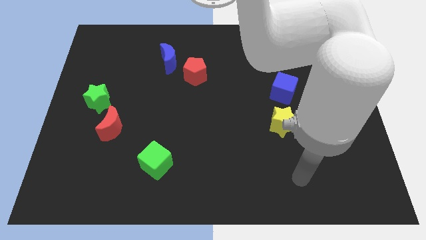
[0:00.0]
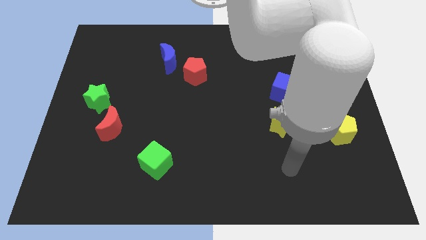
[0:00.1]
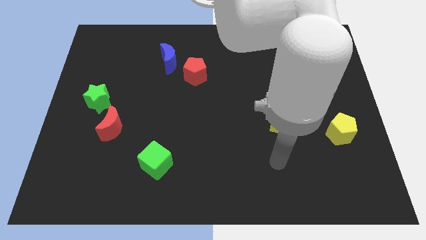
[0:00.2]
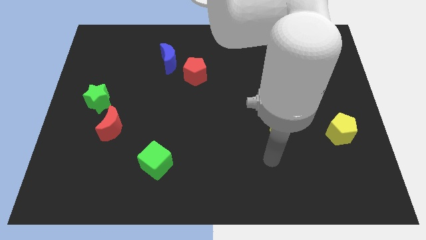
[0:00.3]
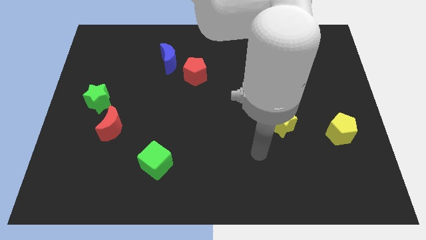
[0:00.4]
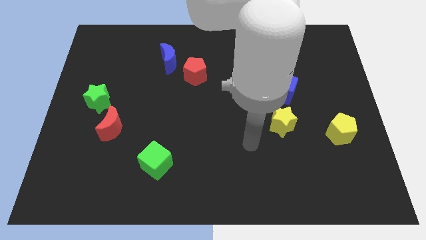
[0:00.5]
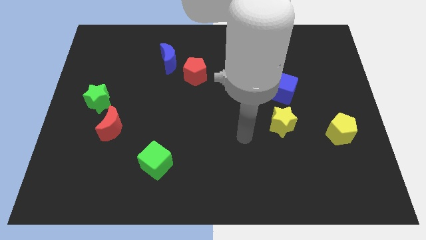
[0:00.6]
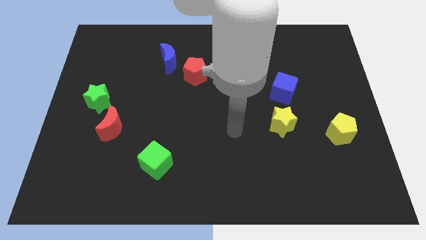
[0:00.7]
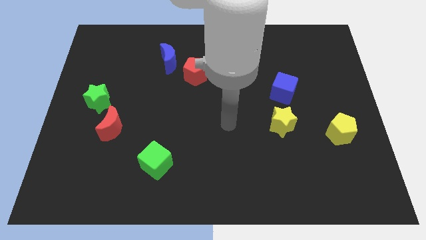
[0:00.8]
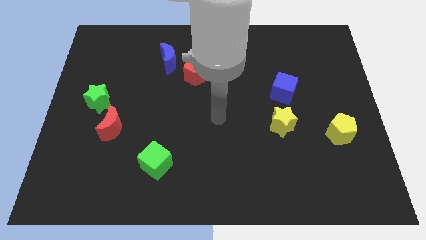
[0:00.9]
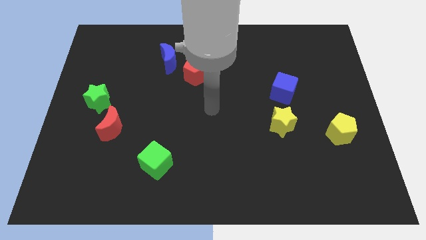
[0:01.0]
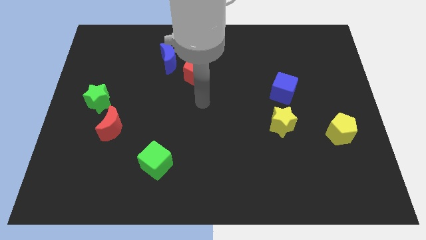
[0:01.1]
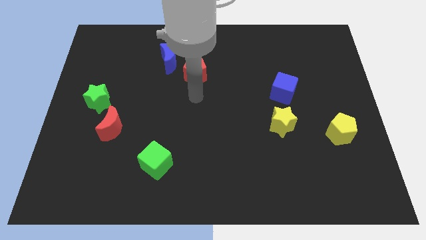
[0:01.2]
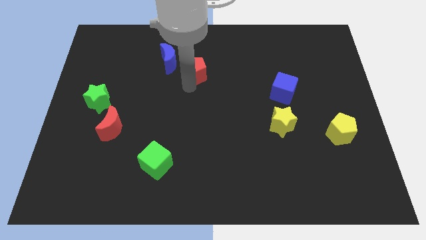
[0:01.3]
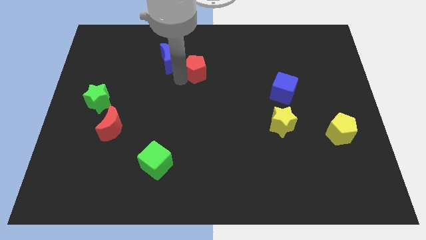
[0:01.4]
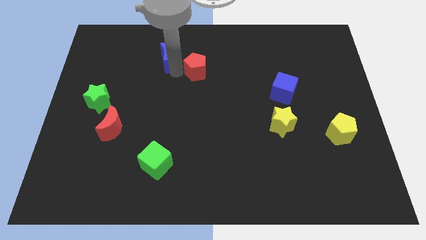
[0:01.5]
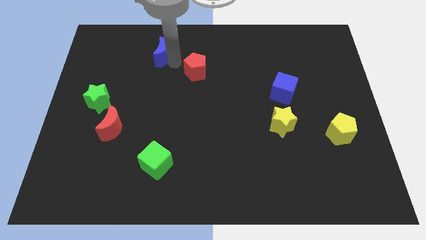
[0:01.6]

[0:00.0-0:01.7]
pull the red pentagon apart from the blue moon

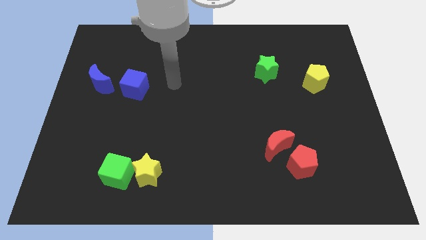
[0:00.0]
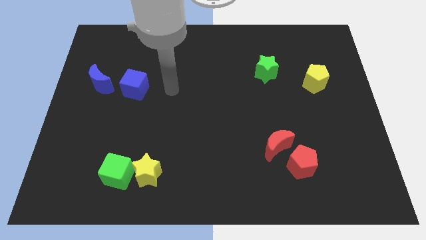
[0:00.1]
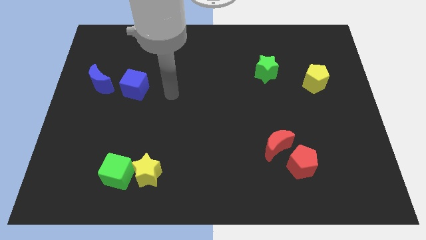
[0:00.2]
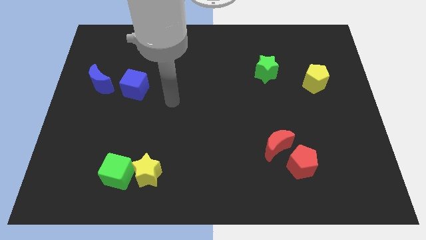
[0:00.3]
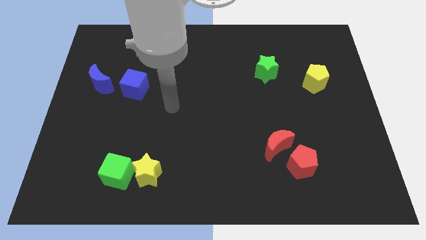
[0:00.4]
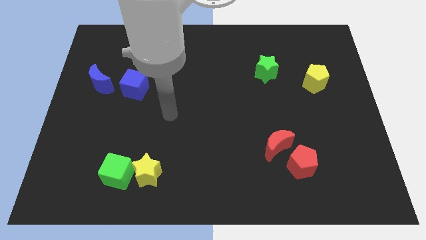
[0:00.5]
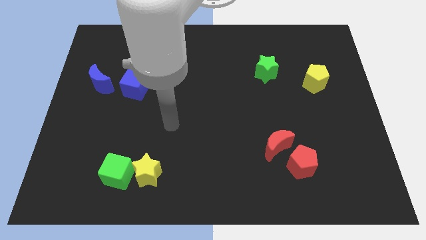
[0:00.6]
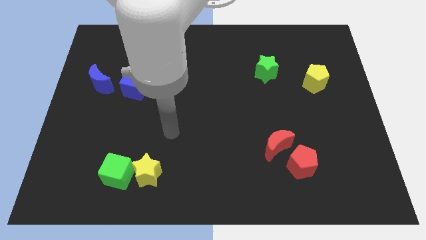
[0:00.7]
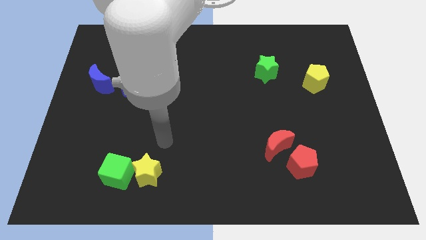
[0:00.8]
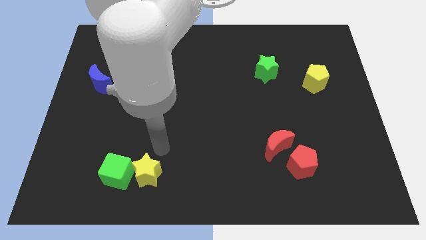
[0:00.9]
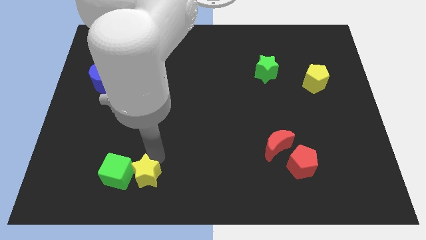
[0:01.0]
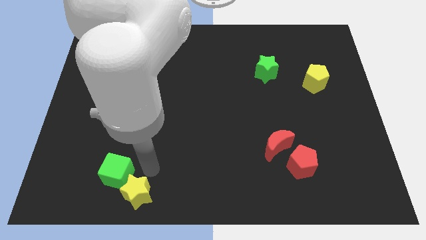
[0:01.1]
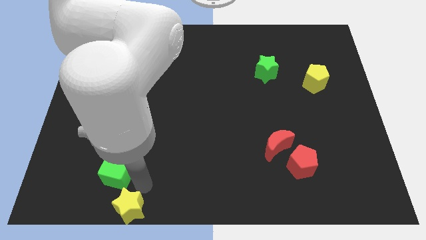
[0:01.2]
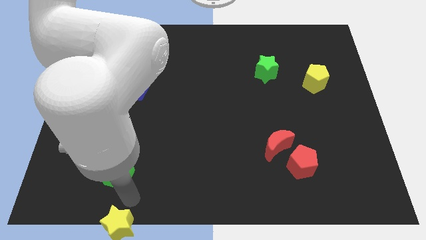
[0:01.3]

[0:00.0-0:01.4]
separate the green cube from the yellow star

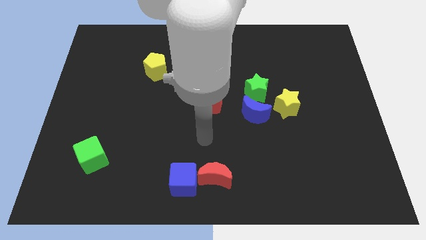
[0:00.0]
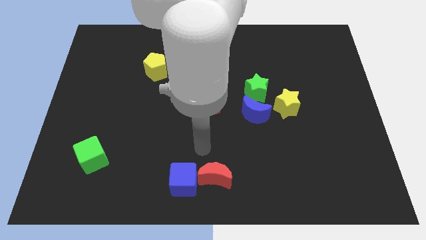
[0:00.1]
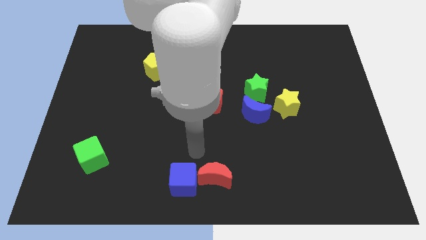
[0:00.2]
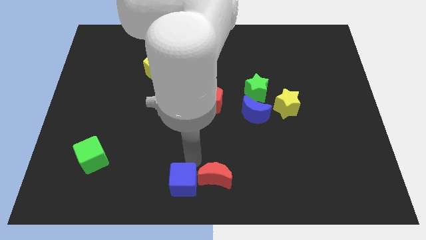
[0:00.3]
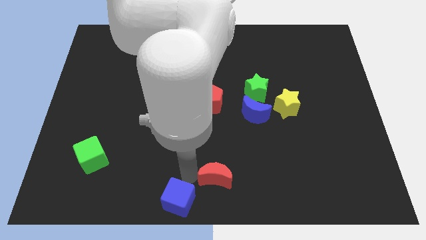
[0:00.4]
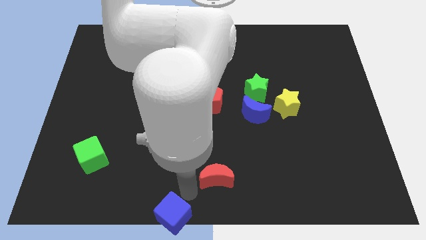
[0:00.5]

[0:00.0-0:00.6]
move the red moon away from the blue cube

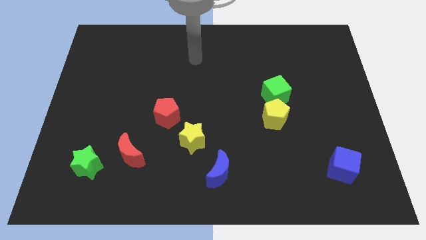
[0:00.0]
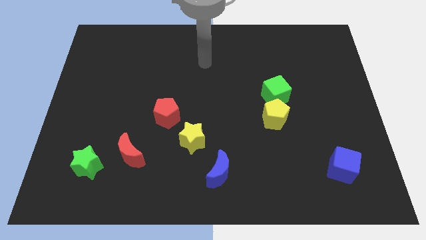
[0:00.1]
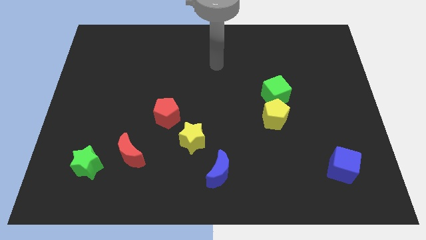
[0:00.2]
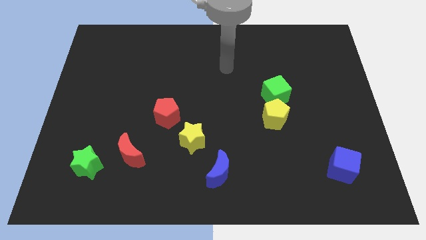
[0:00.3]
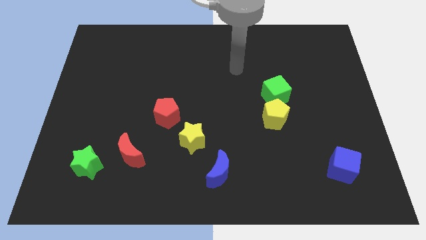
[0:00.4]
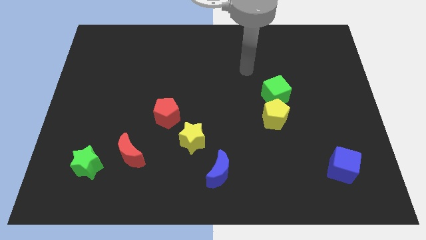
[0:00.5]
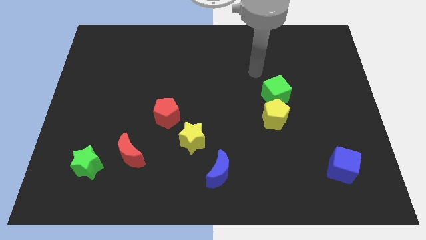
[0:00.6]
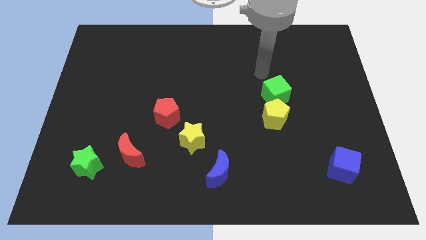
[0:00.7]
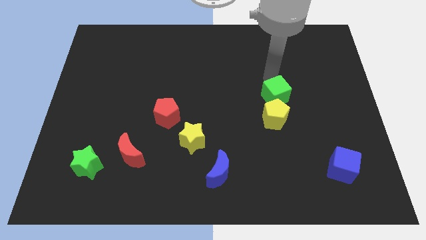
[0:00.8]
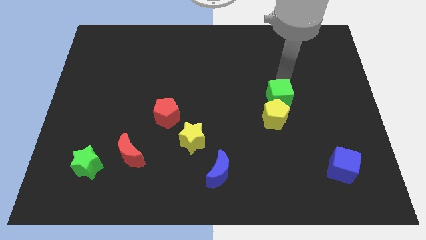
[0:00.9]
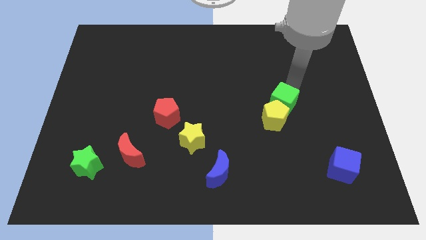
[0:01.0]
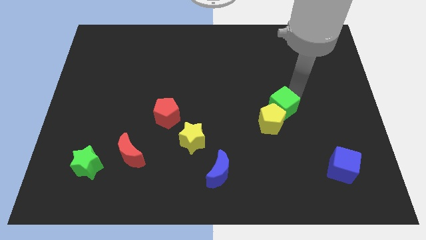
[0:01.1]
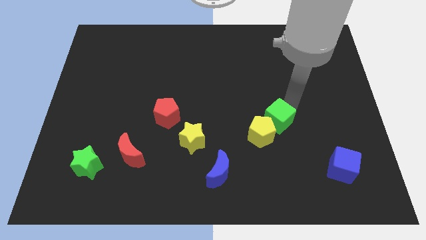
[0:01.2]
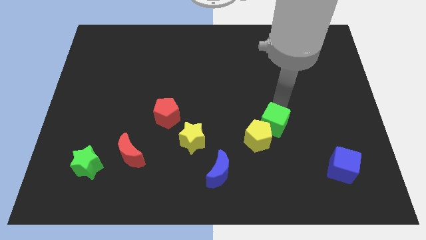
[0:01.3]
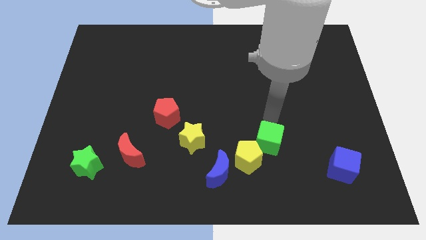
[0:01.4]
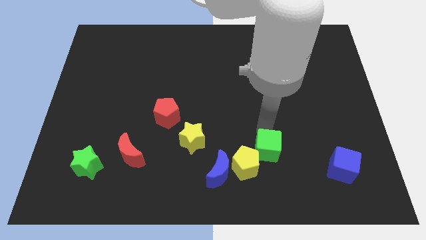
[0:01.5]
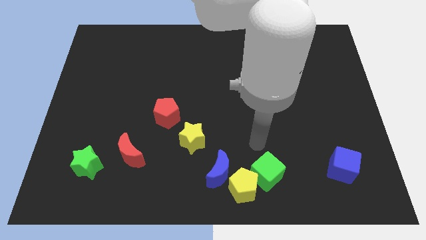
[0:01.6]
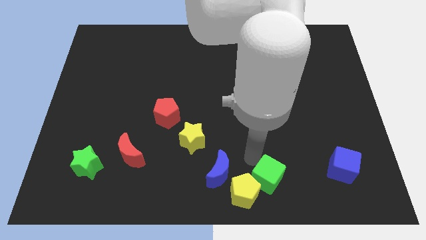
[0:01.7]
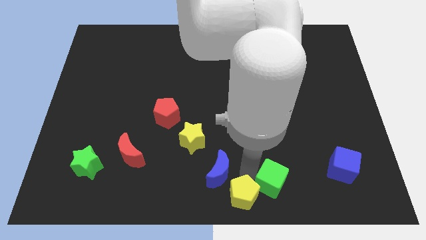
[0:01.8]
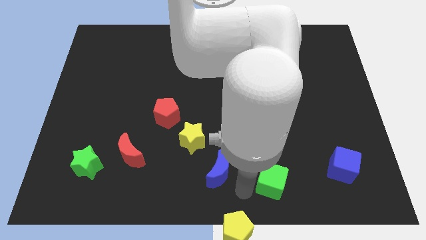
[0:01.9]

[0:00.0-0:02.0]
move the green cube away from the yellow pentagon

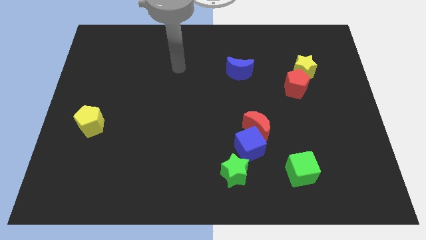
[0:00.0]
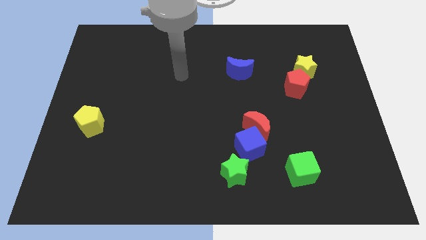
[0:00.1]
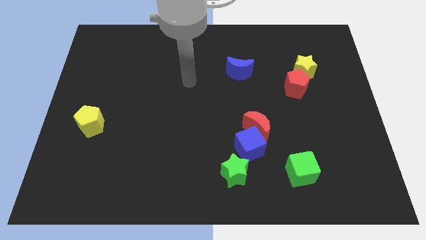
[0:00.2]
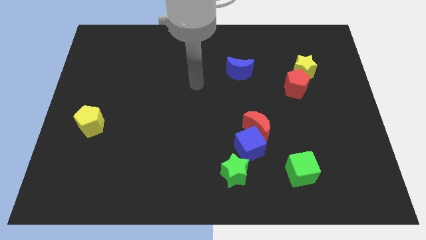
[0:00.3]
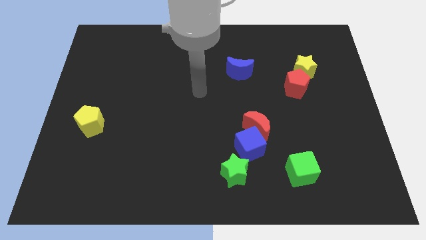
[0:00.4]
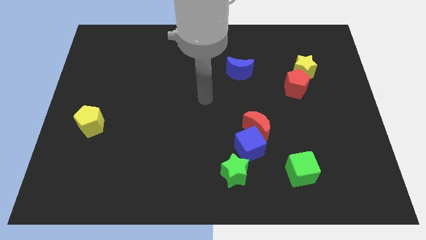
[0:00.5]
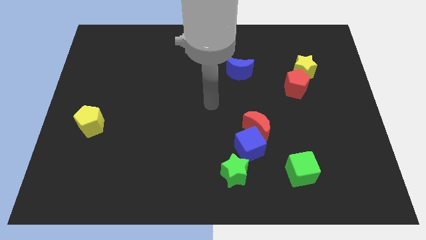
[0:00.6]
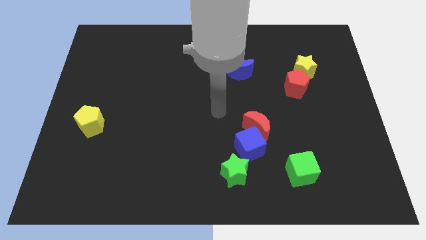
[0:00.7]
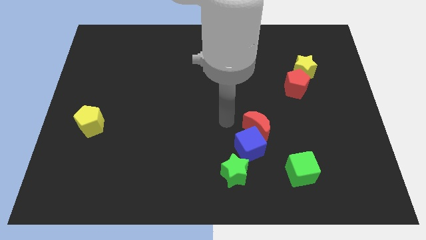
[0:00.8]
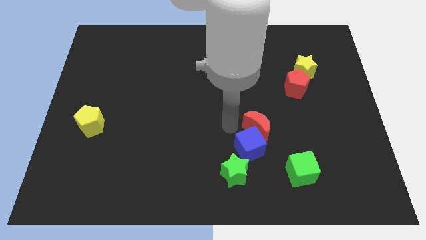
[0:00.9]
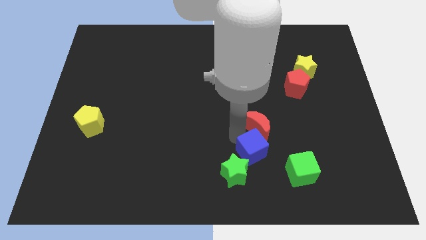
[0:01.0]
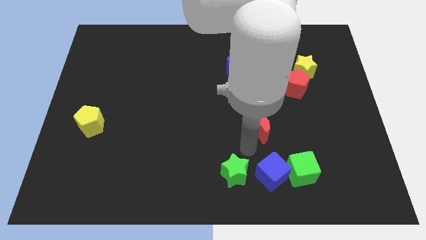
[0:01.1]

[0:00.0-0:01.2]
separate the red moon from the blue cube

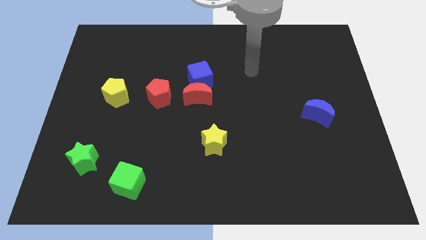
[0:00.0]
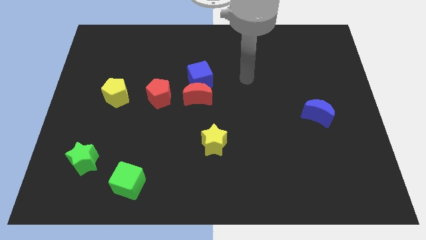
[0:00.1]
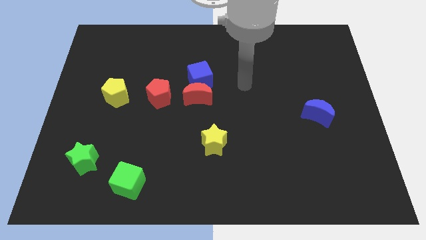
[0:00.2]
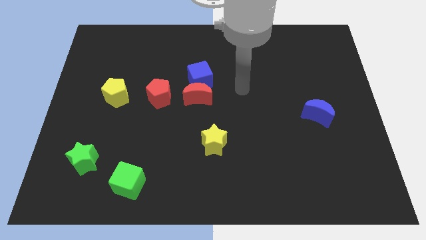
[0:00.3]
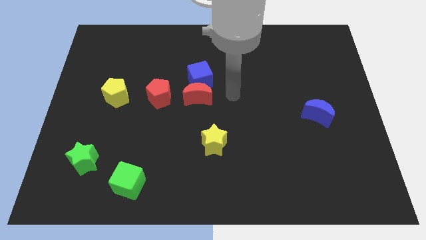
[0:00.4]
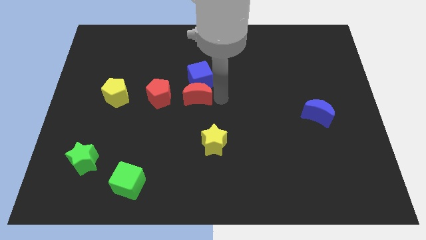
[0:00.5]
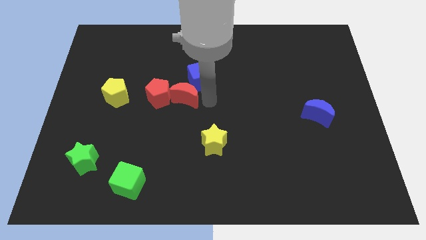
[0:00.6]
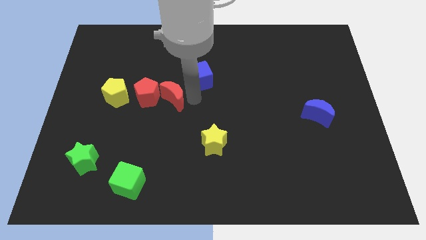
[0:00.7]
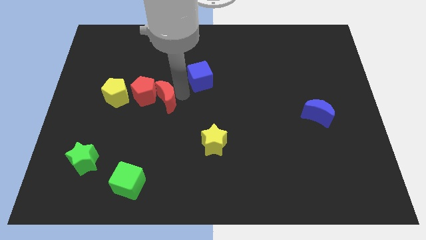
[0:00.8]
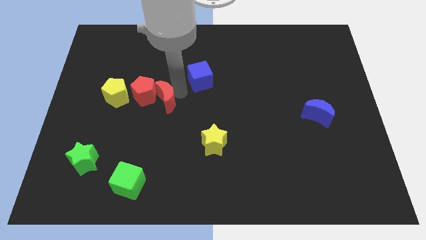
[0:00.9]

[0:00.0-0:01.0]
separate the blue cube from the red moon

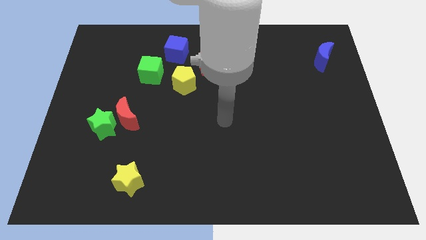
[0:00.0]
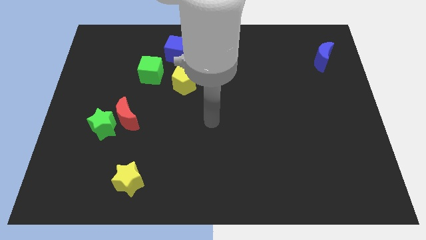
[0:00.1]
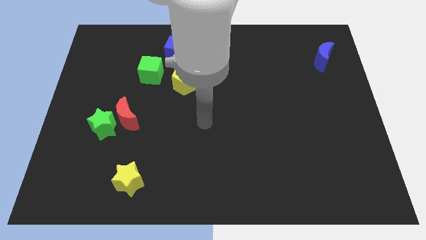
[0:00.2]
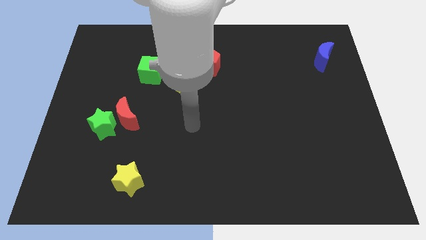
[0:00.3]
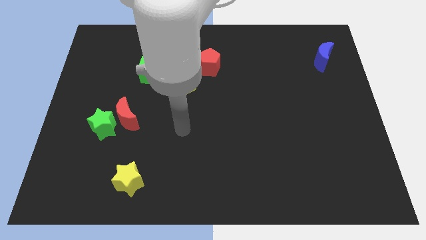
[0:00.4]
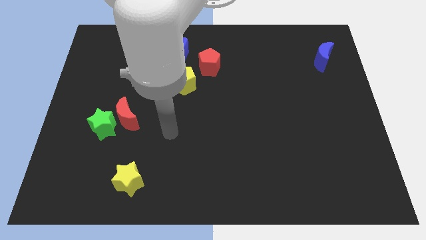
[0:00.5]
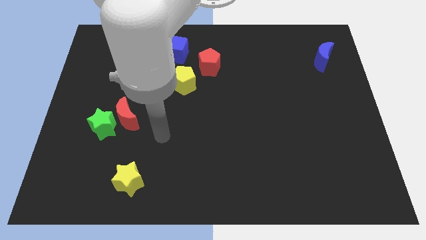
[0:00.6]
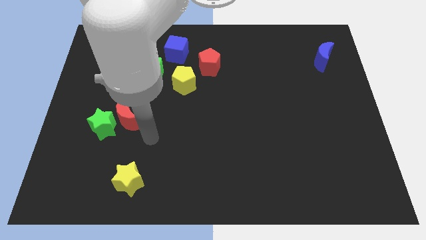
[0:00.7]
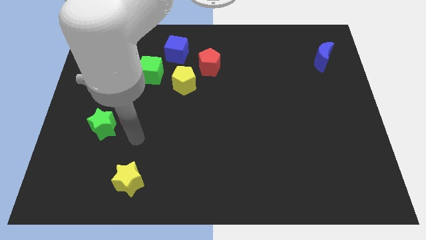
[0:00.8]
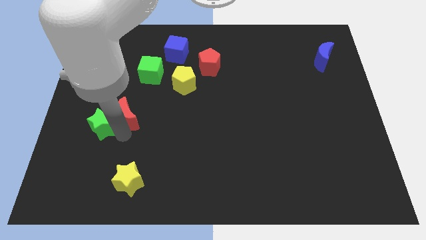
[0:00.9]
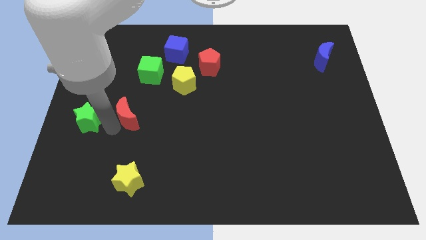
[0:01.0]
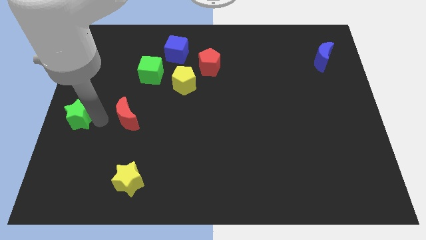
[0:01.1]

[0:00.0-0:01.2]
move the red moon away from the green star

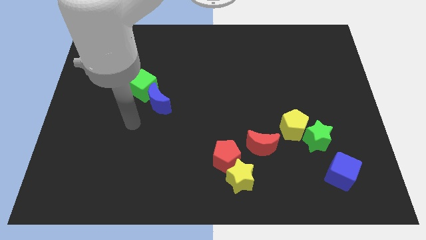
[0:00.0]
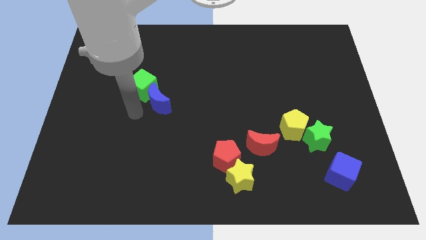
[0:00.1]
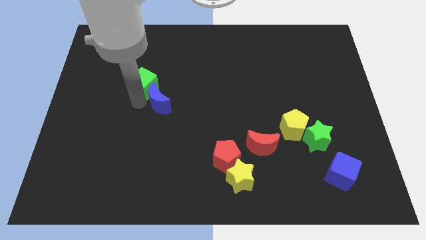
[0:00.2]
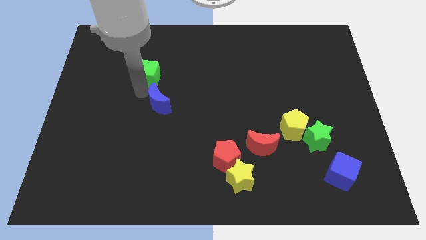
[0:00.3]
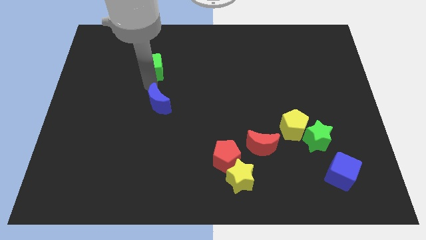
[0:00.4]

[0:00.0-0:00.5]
move the blue moon away from the green cube
